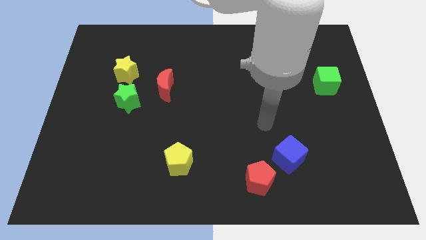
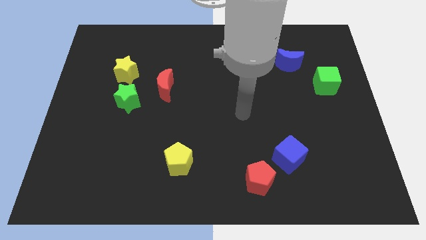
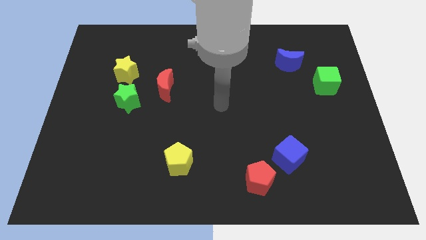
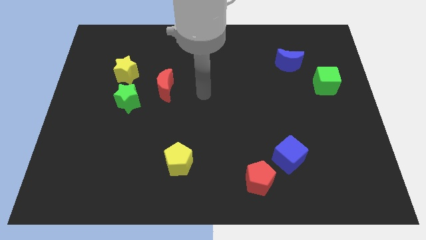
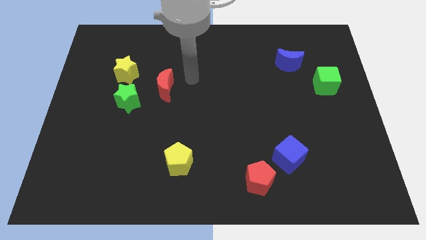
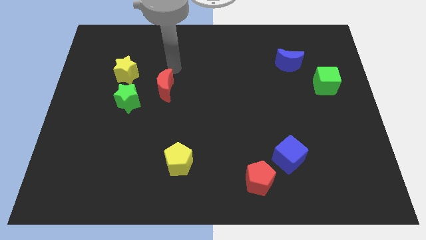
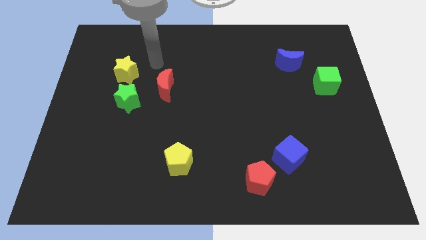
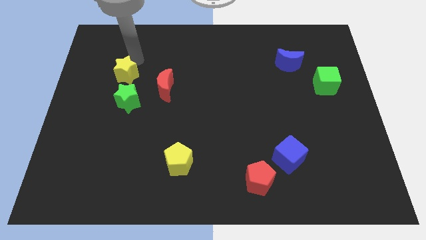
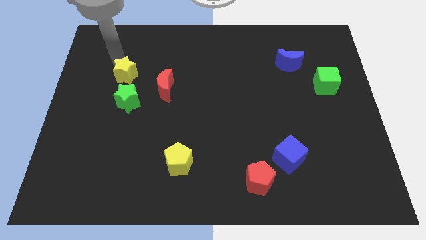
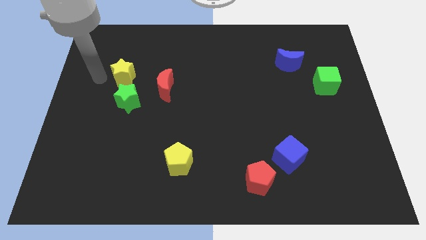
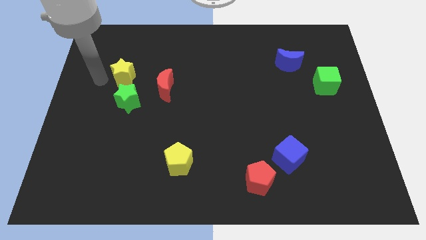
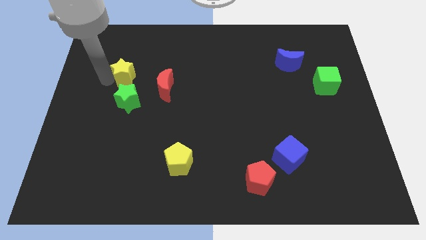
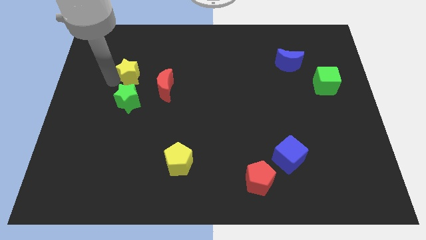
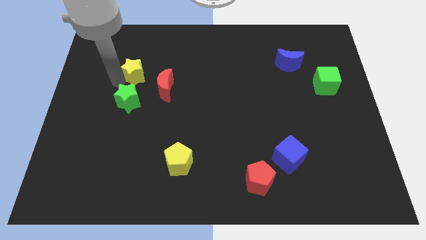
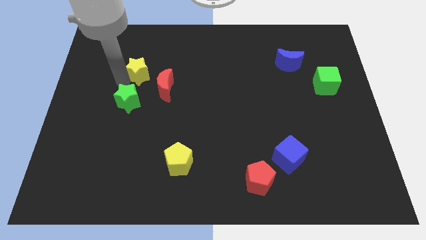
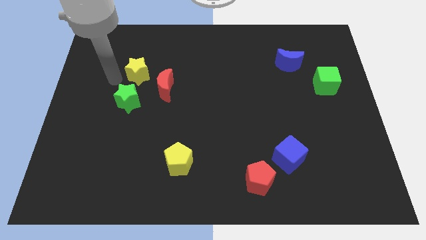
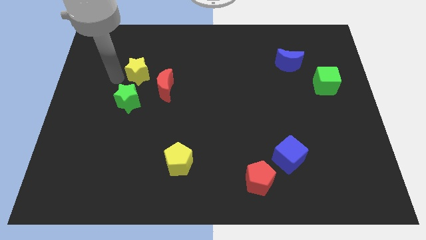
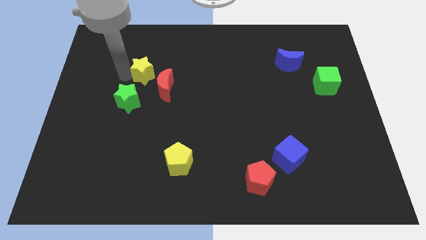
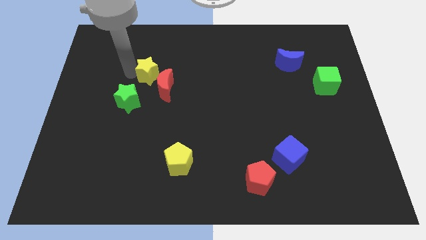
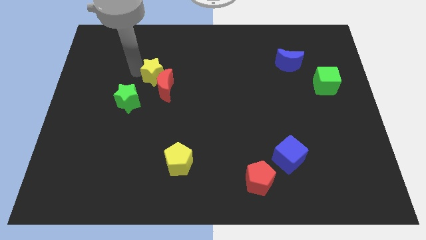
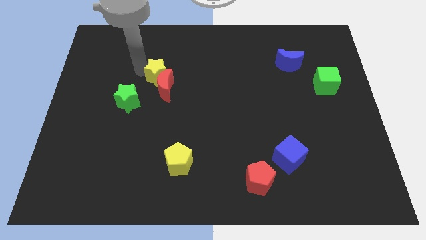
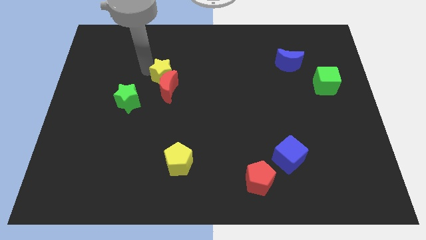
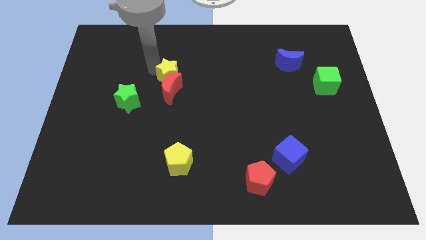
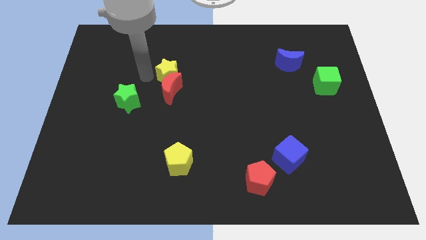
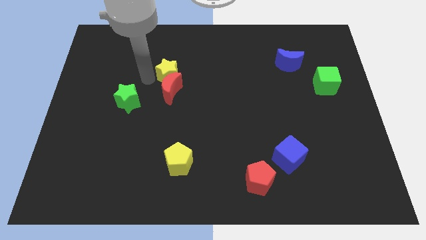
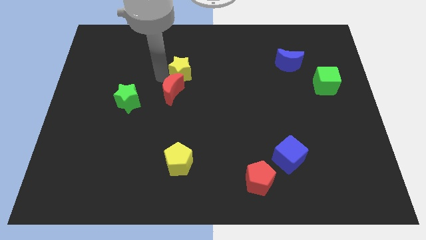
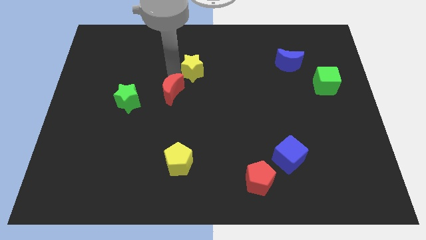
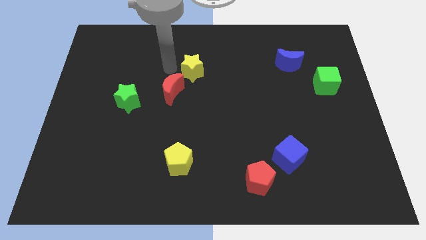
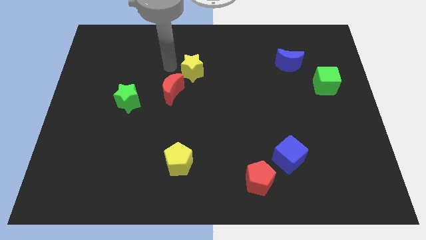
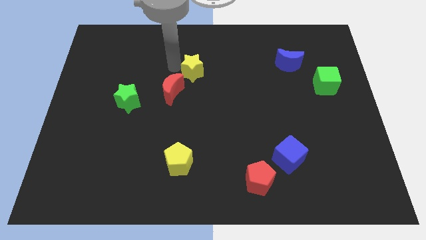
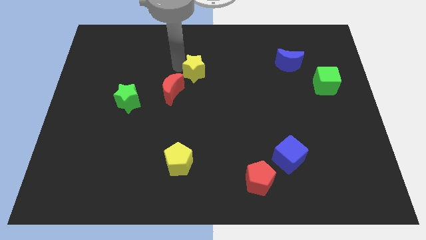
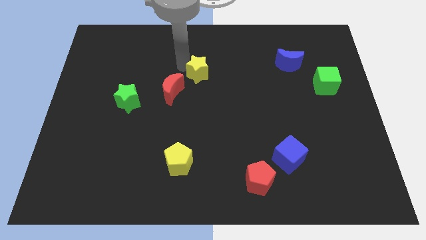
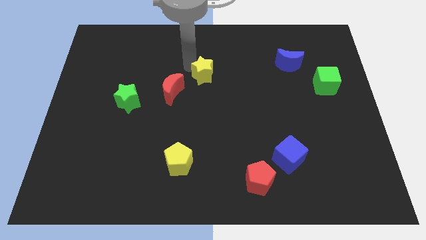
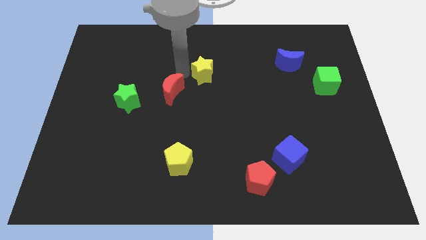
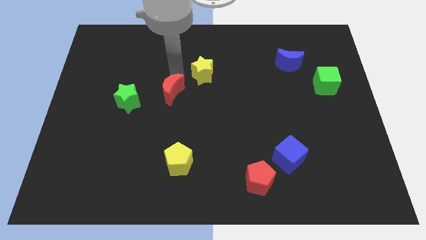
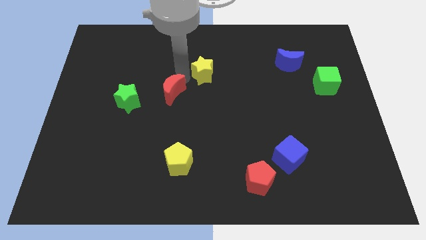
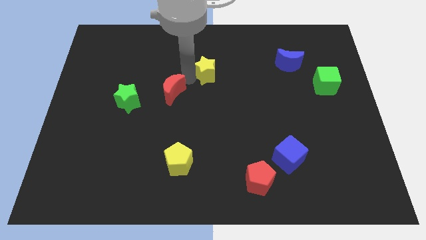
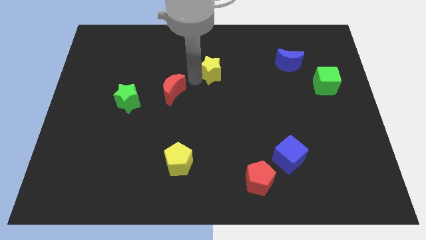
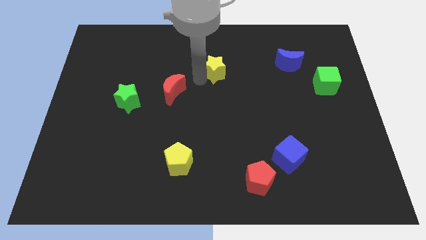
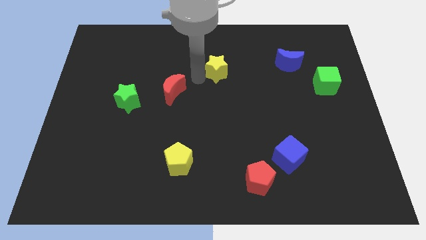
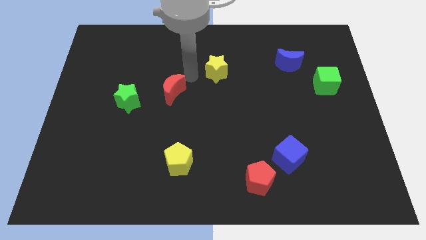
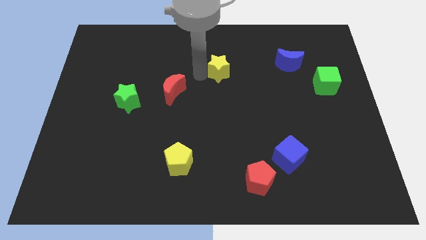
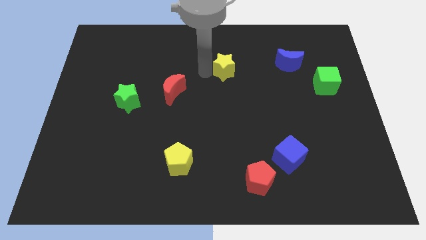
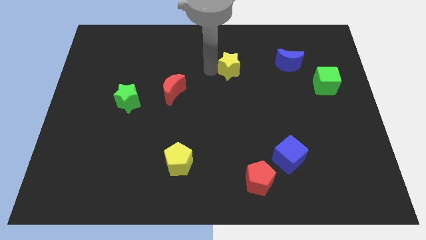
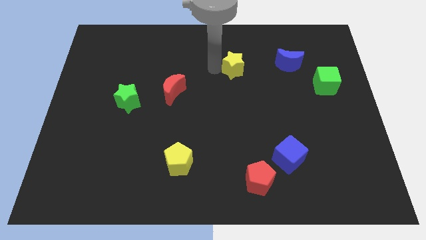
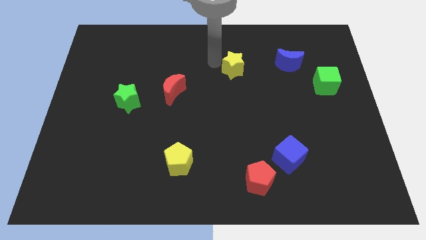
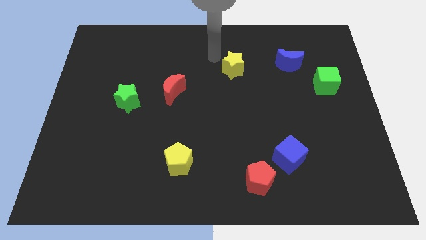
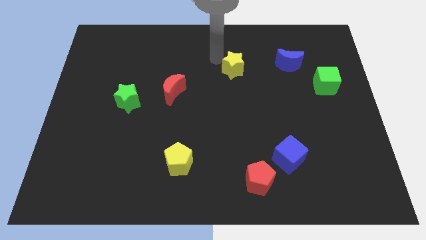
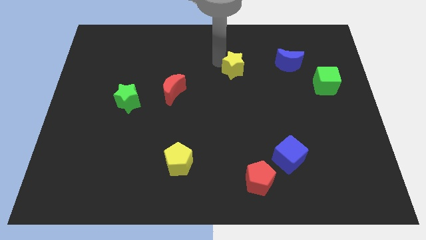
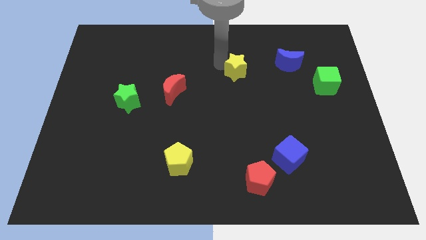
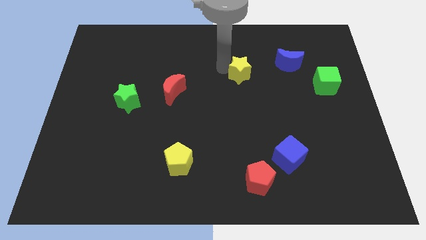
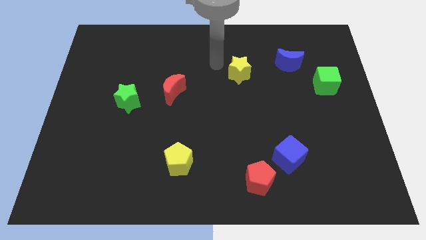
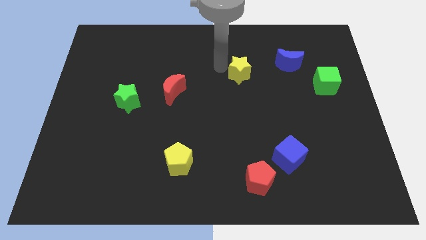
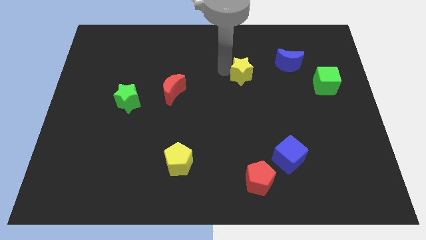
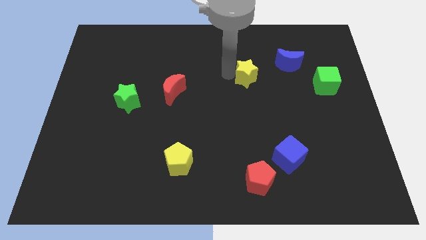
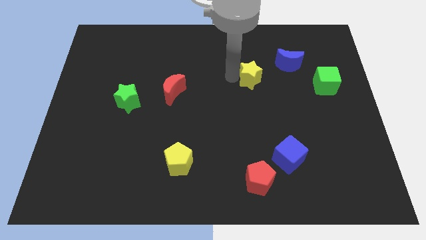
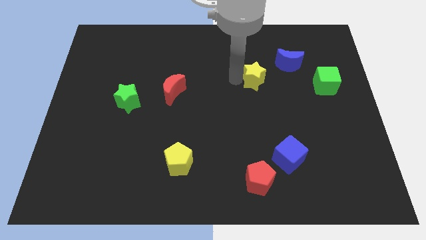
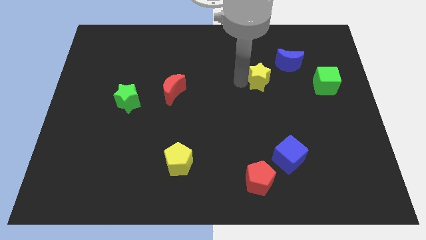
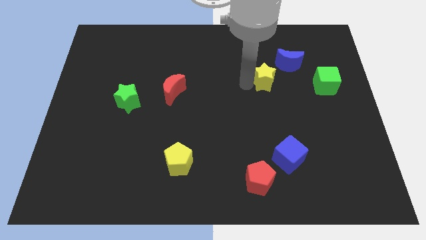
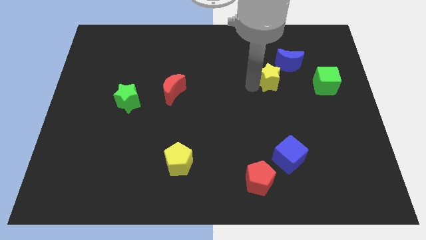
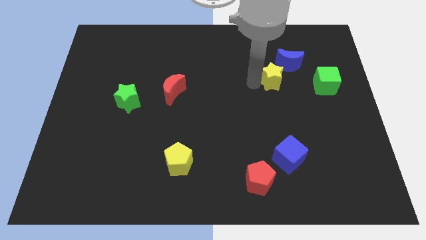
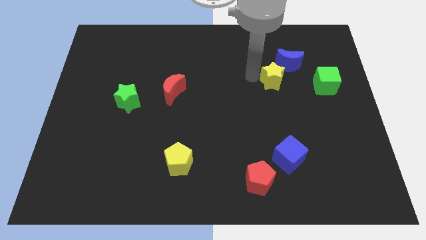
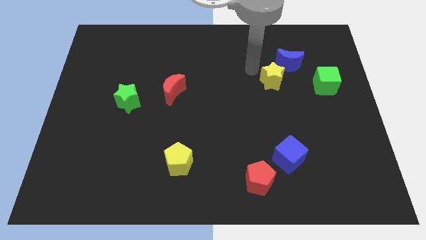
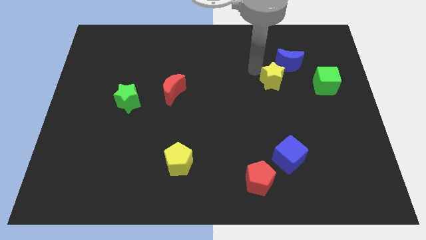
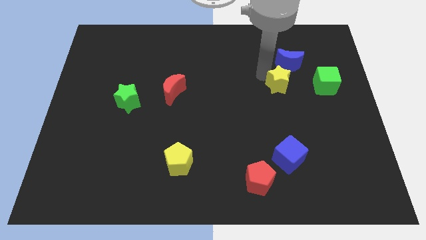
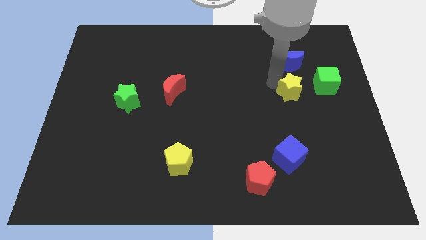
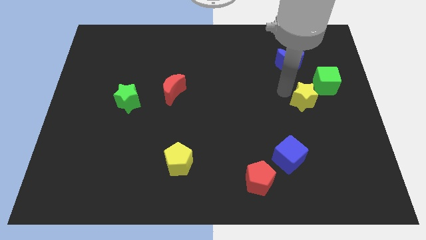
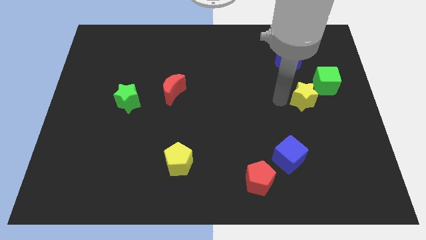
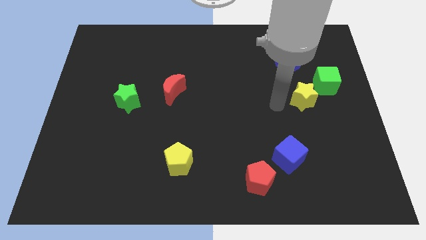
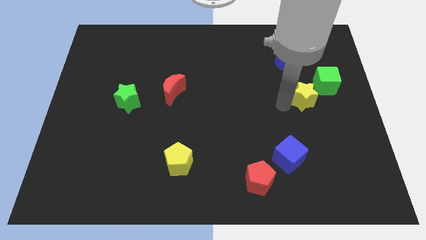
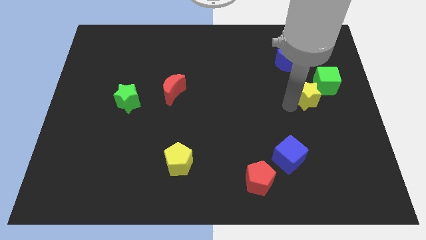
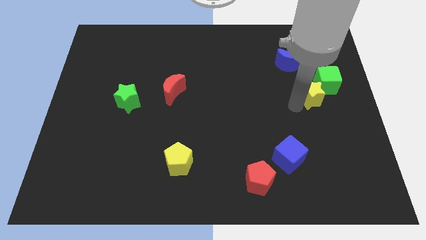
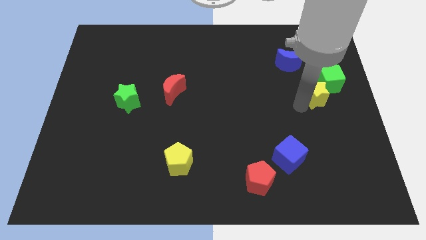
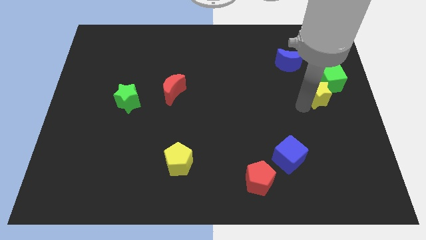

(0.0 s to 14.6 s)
slide the yellow star to the right side of the board
